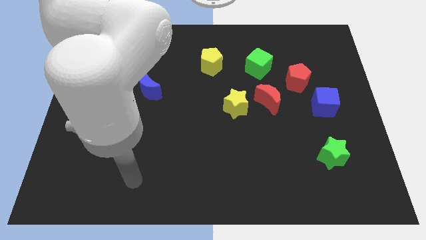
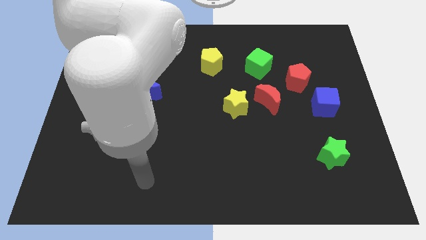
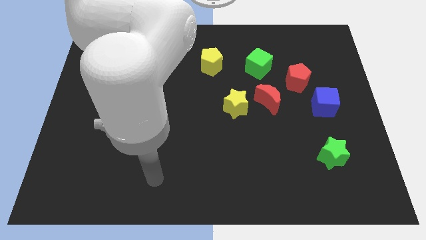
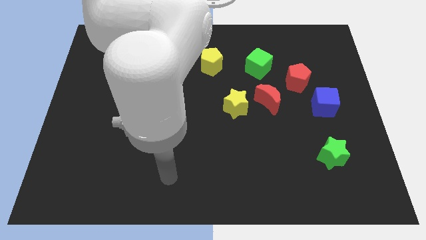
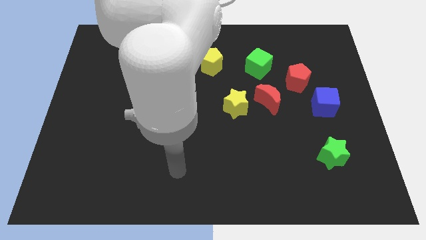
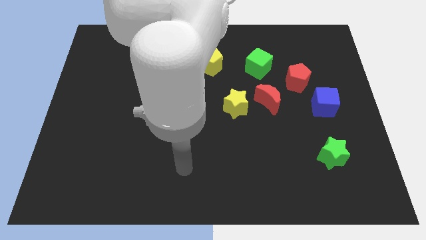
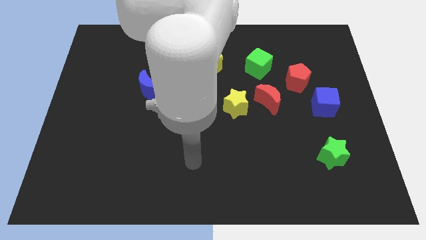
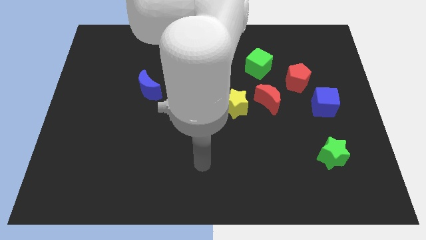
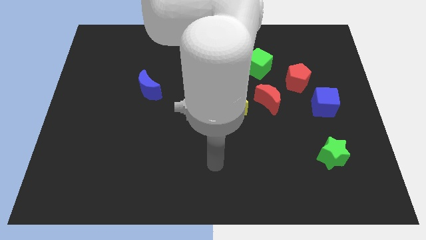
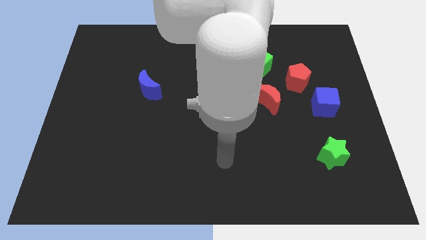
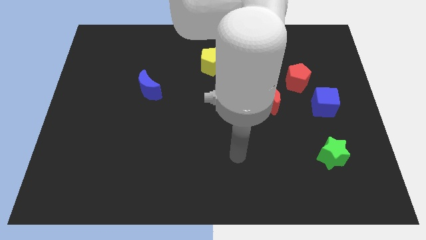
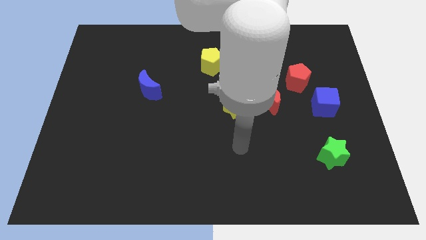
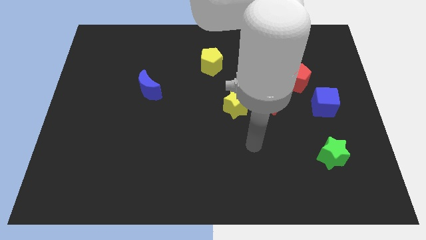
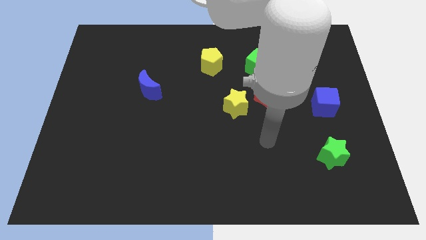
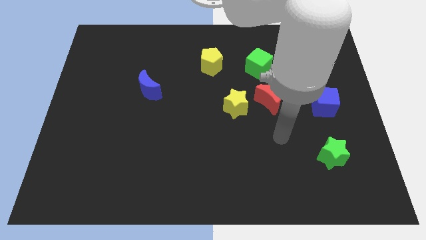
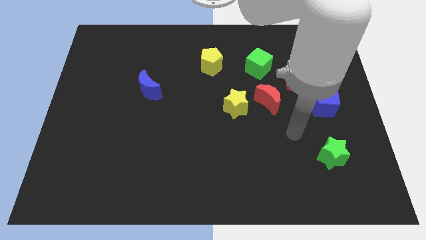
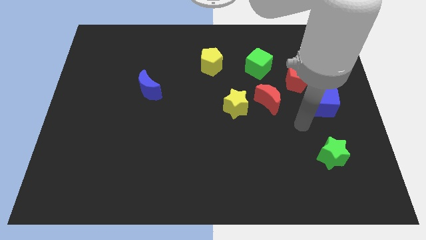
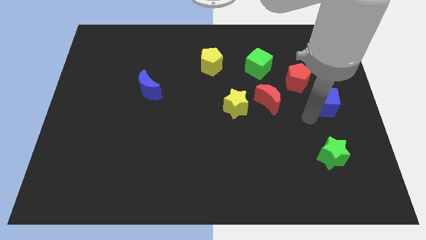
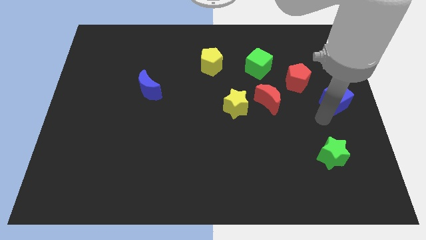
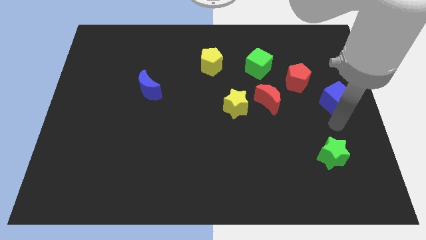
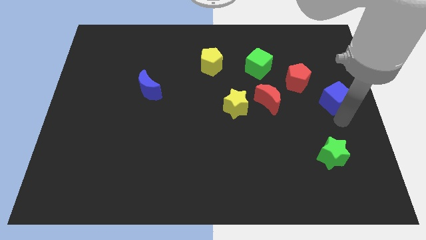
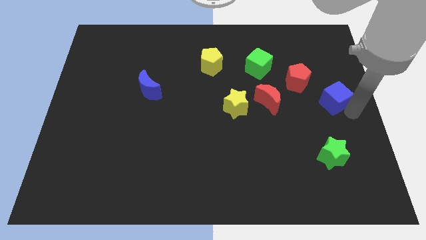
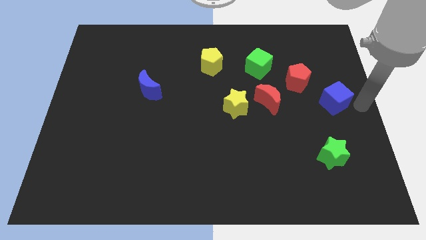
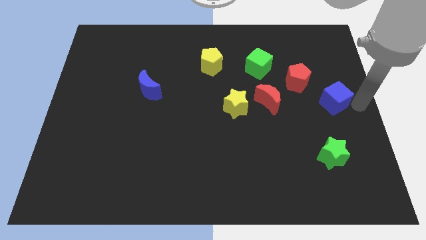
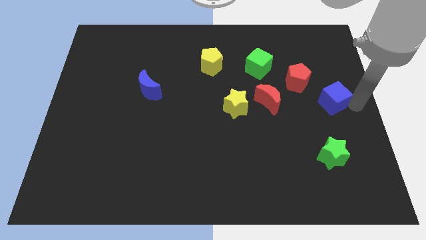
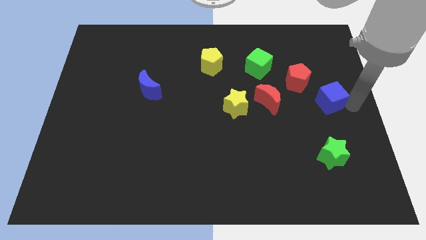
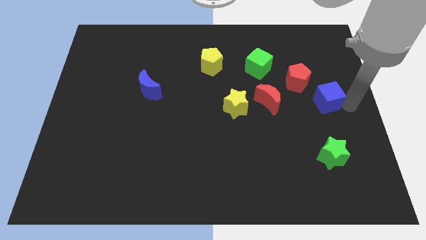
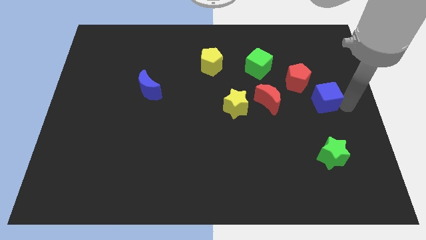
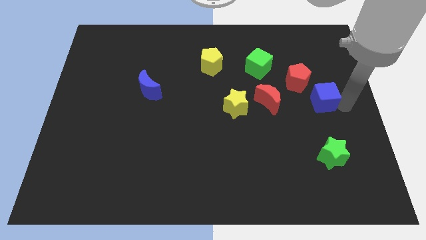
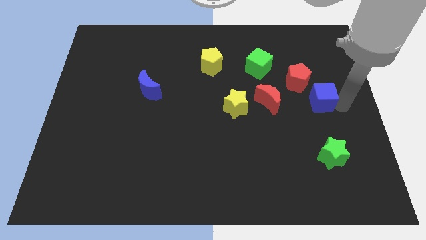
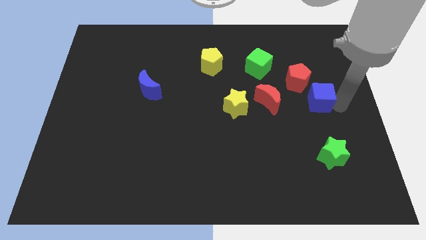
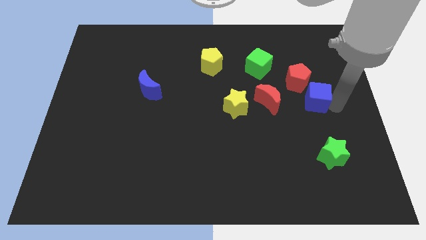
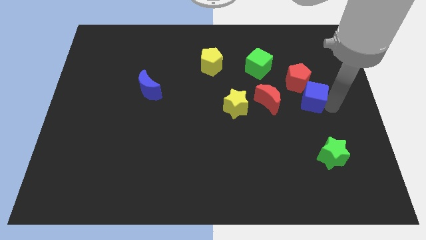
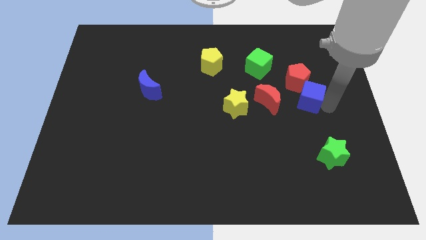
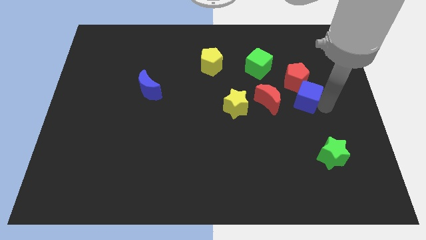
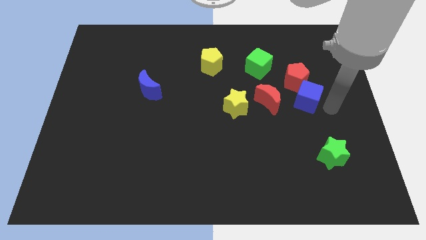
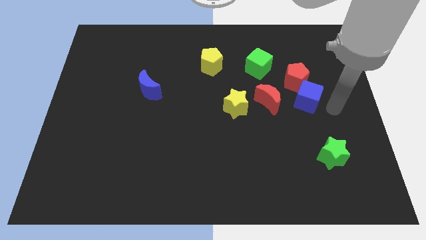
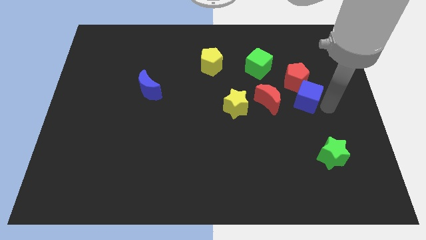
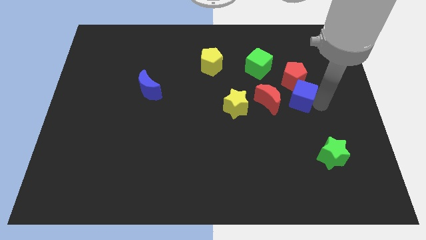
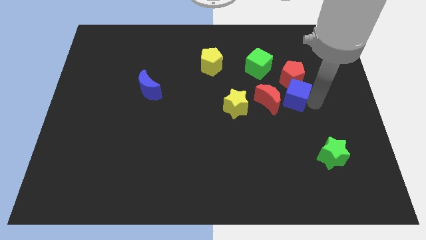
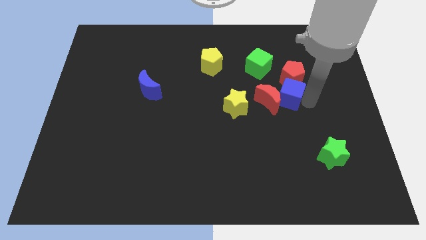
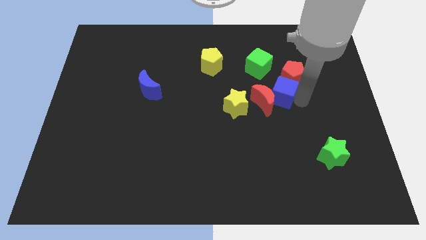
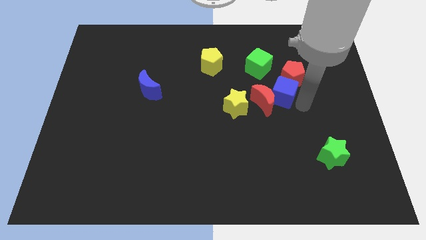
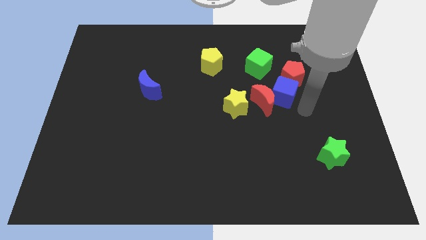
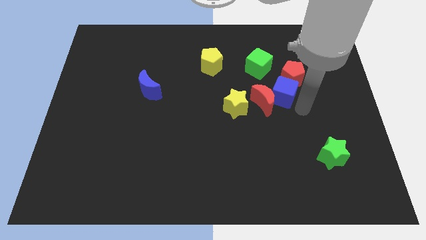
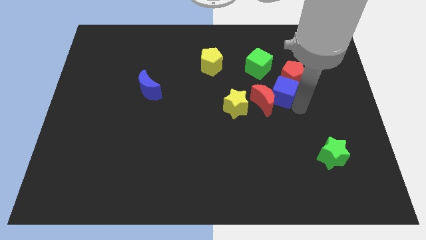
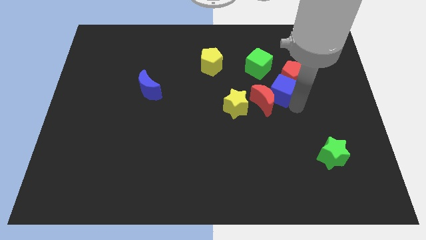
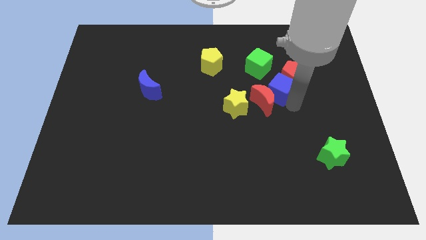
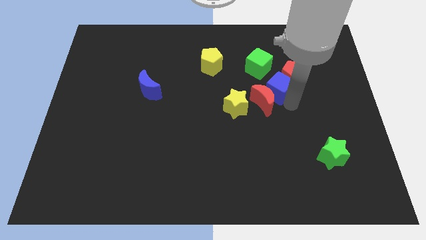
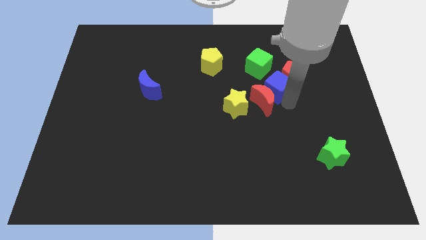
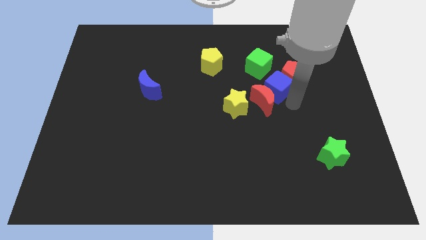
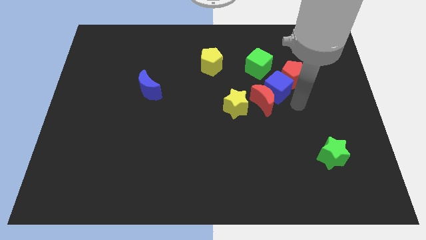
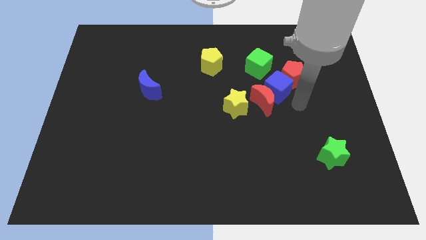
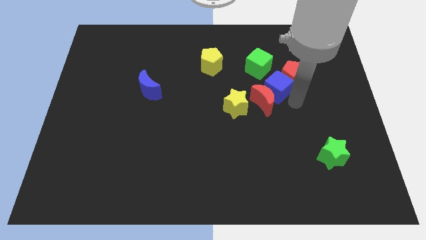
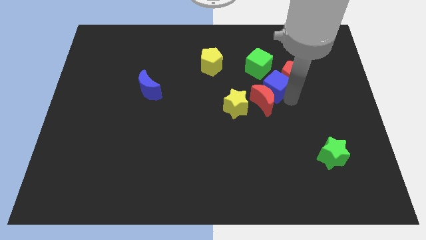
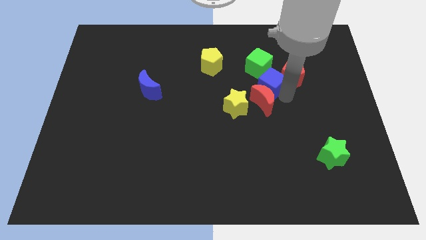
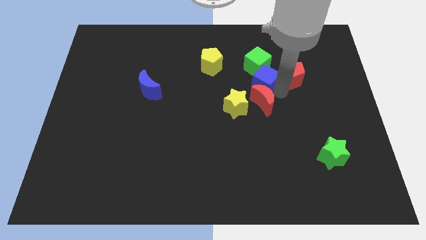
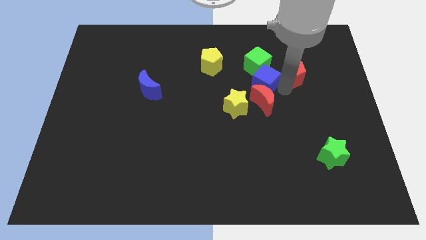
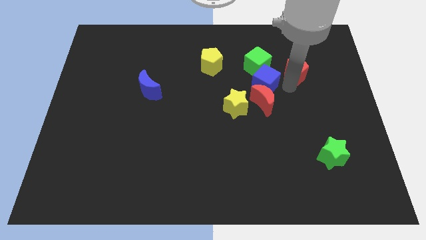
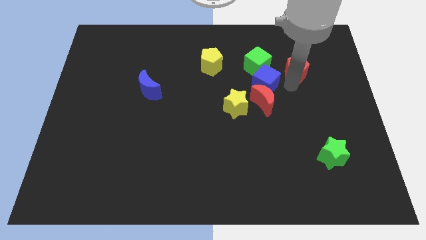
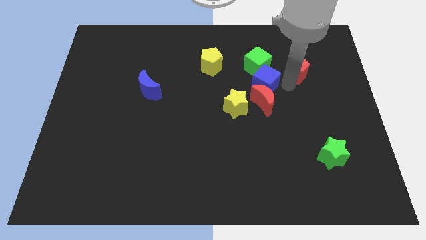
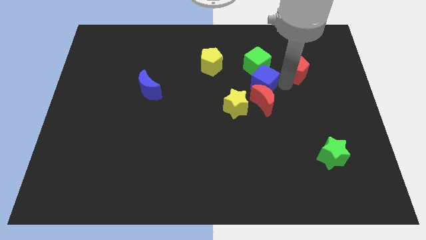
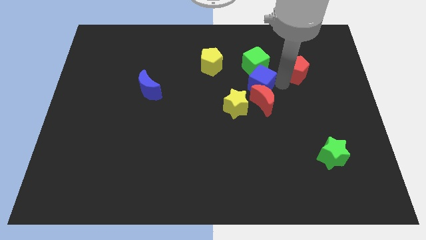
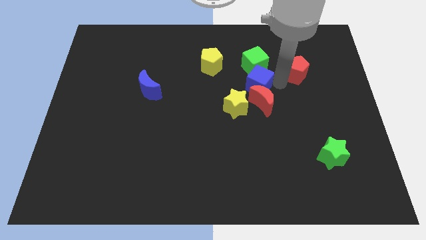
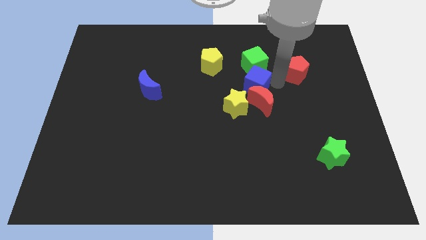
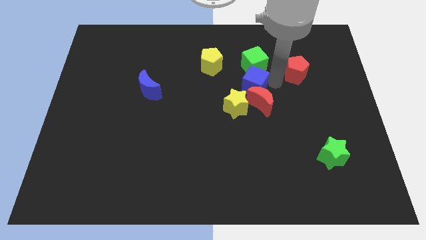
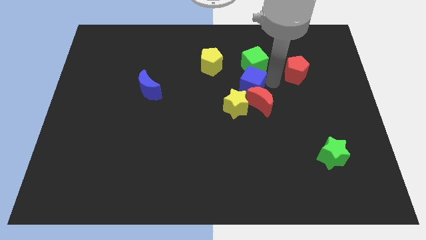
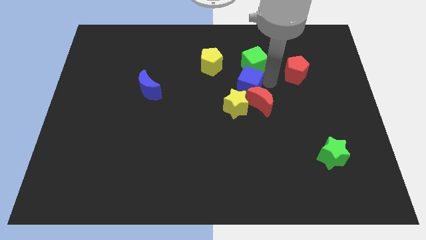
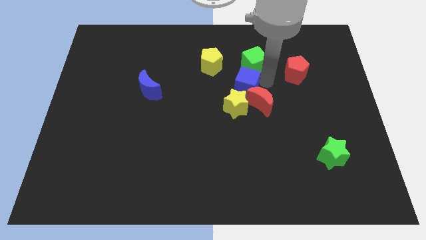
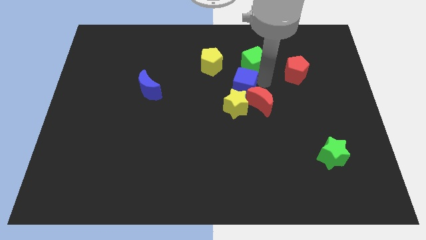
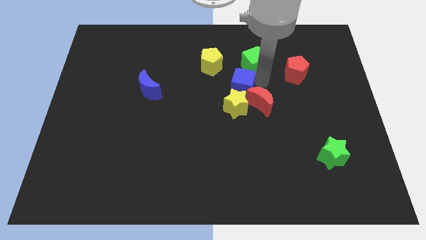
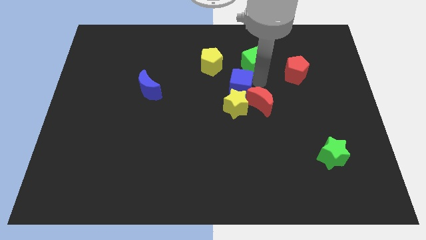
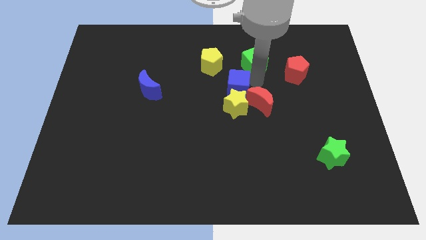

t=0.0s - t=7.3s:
put the blue cube to the top left side of the yellow star
